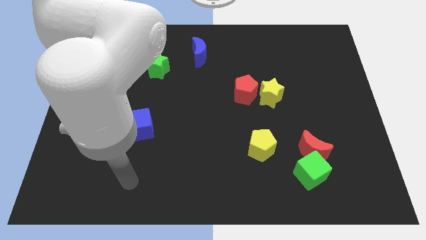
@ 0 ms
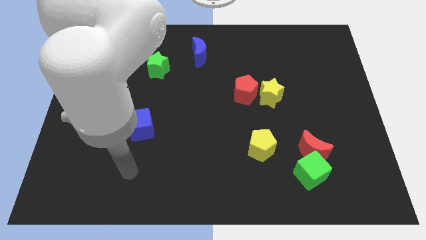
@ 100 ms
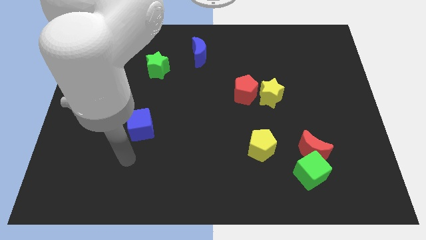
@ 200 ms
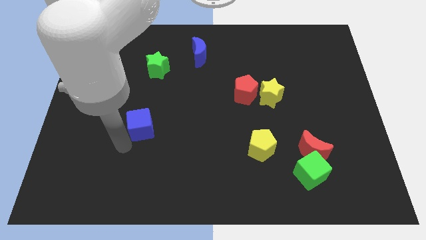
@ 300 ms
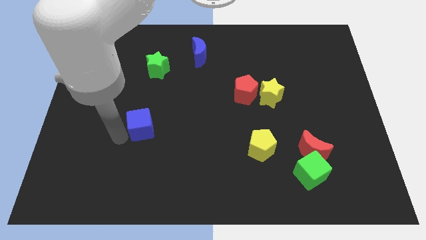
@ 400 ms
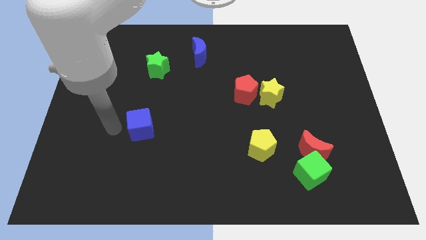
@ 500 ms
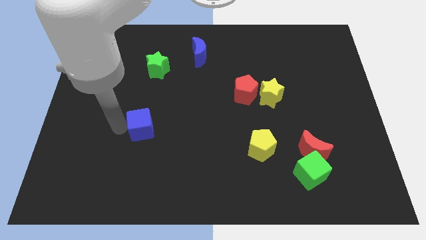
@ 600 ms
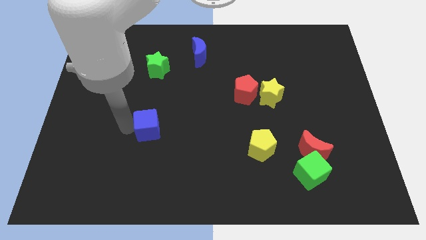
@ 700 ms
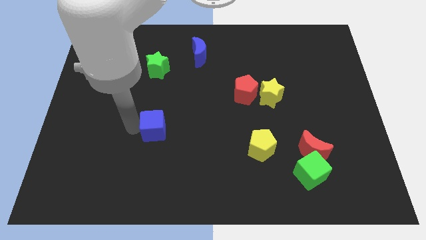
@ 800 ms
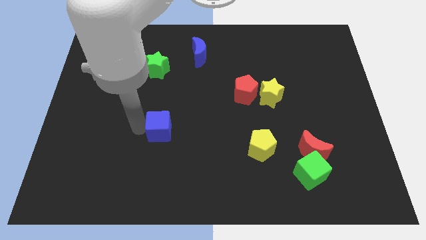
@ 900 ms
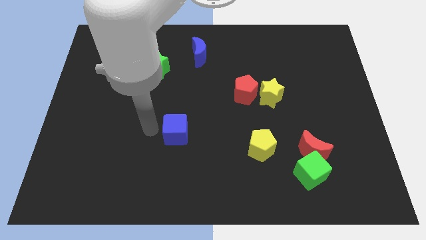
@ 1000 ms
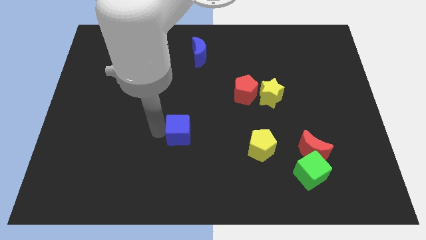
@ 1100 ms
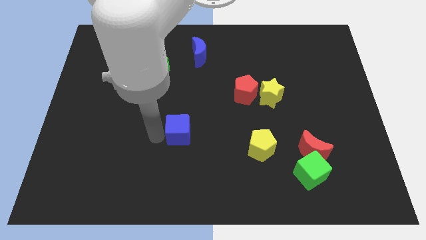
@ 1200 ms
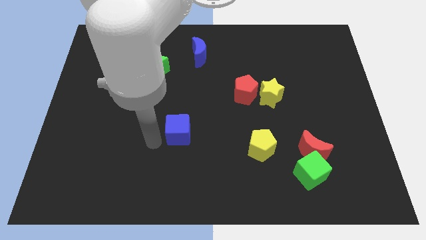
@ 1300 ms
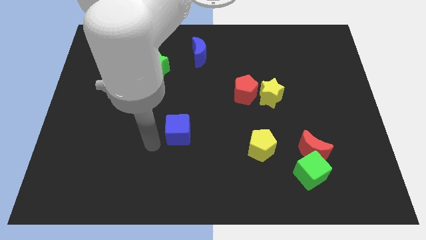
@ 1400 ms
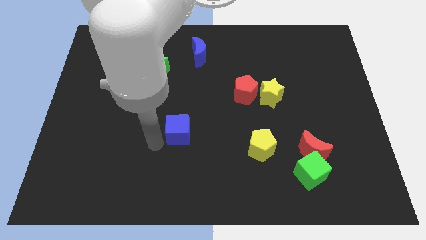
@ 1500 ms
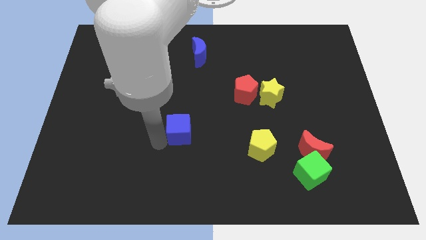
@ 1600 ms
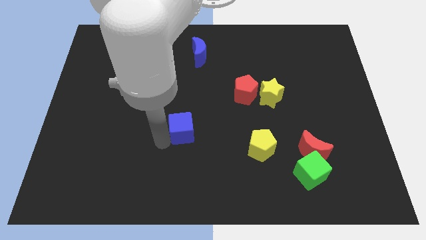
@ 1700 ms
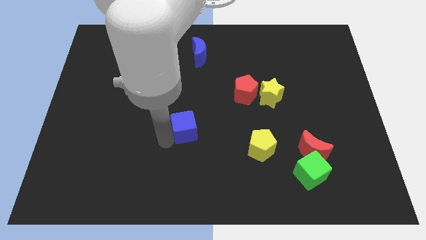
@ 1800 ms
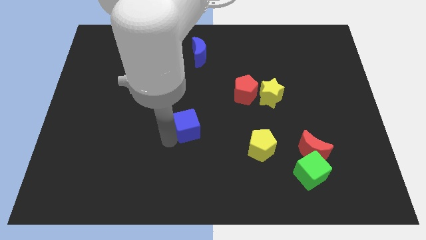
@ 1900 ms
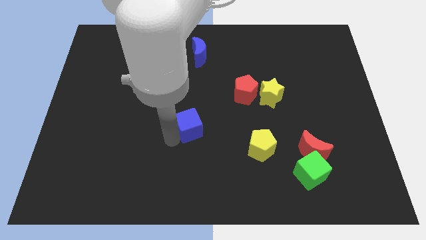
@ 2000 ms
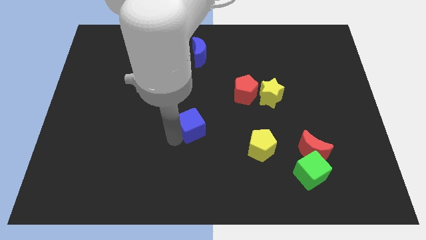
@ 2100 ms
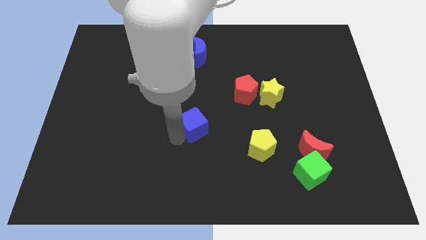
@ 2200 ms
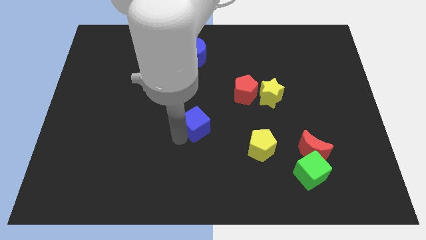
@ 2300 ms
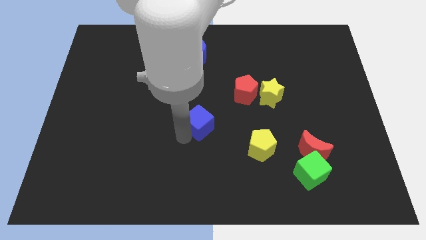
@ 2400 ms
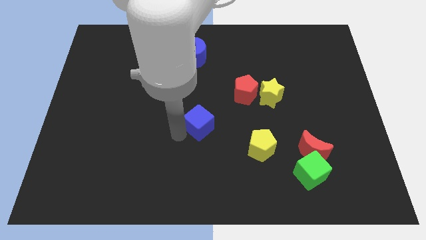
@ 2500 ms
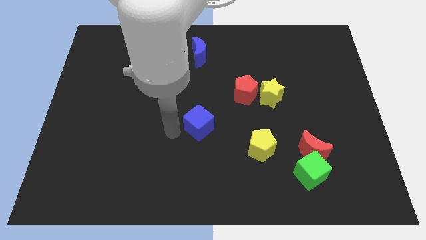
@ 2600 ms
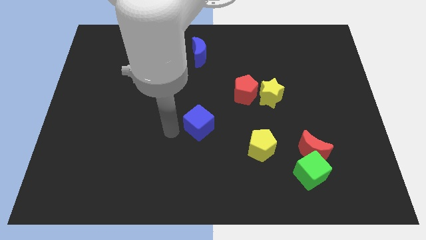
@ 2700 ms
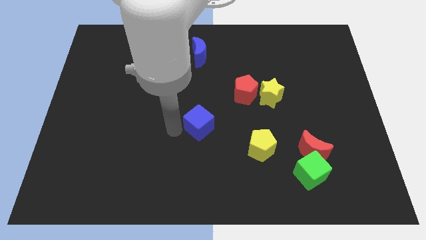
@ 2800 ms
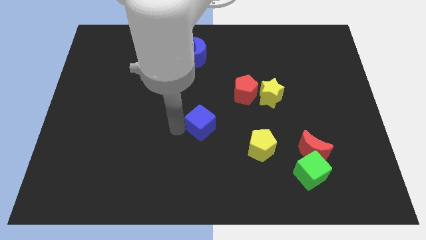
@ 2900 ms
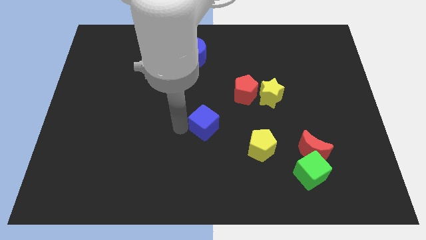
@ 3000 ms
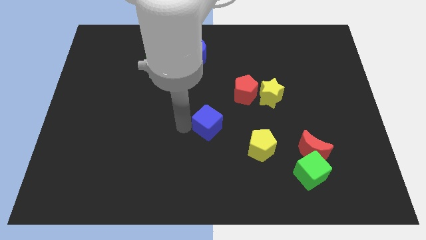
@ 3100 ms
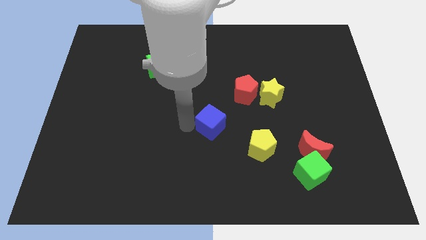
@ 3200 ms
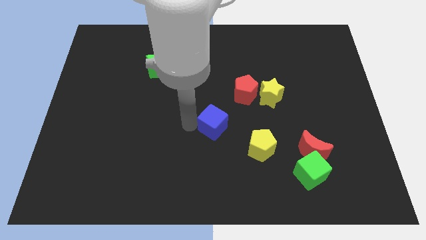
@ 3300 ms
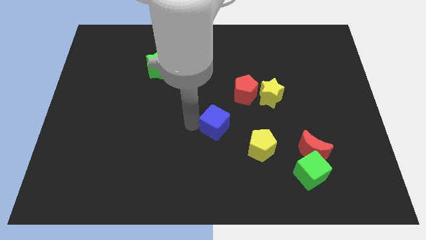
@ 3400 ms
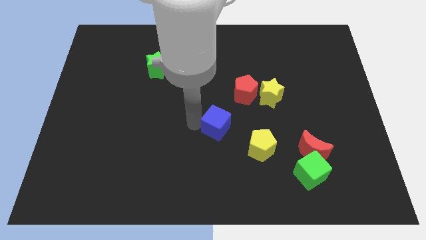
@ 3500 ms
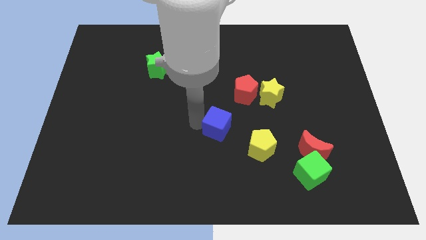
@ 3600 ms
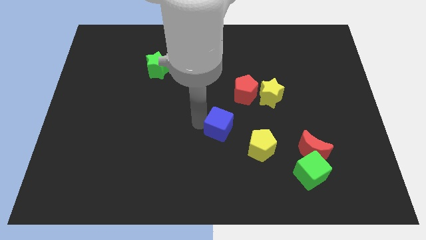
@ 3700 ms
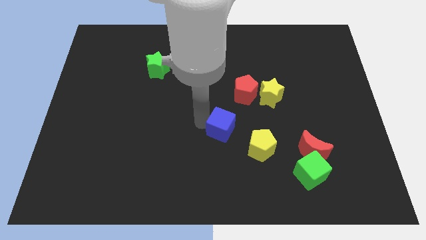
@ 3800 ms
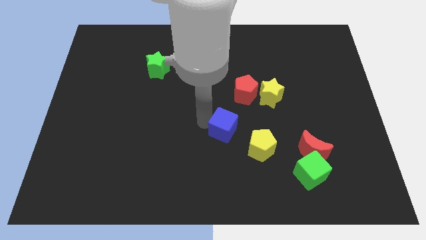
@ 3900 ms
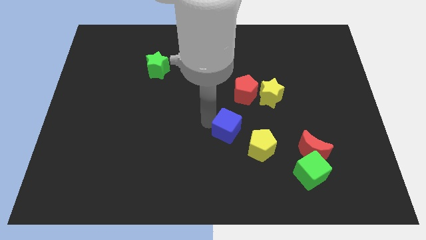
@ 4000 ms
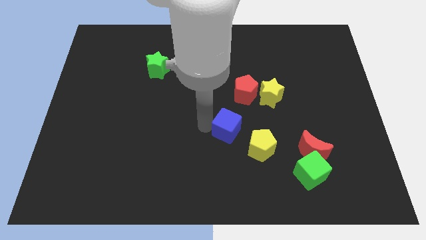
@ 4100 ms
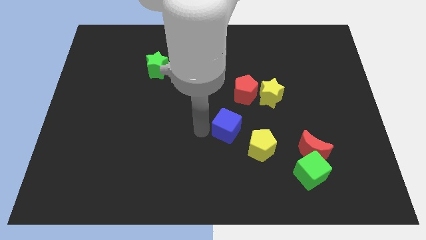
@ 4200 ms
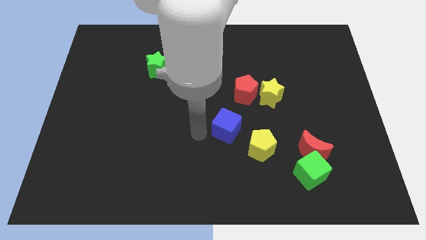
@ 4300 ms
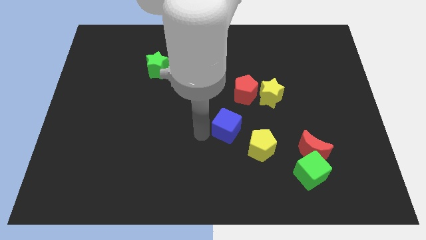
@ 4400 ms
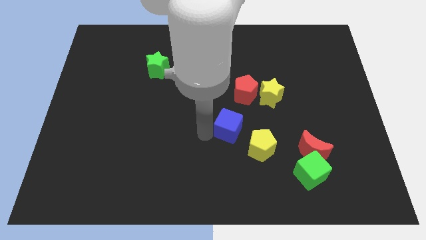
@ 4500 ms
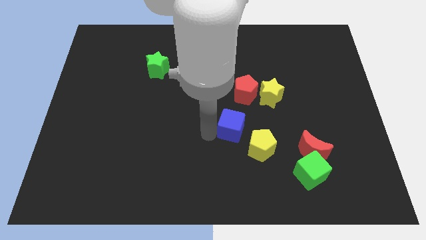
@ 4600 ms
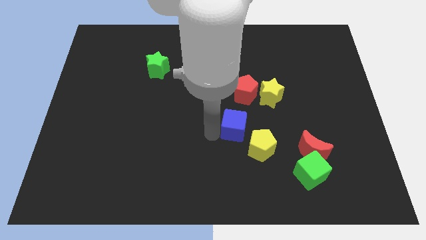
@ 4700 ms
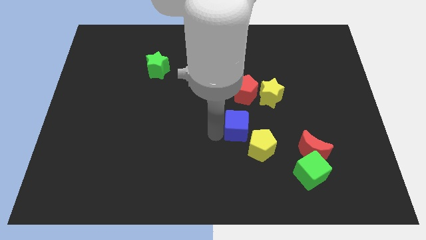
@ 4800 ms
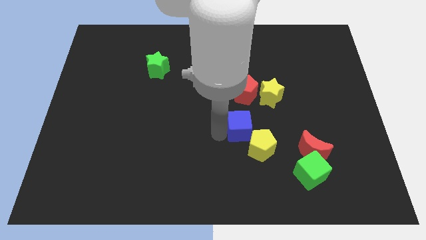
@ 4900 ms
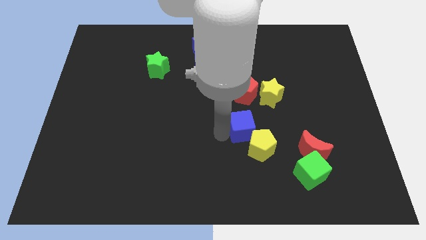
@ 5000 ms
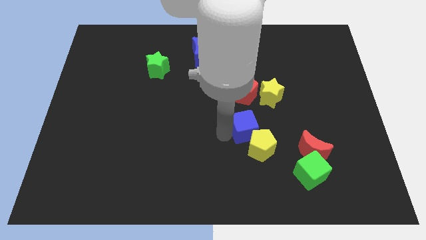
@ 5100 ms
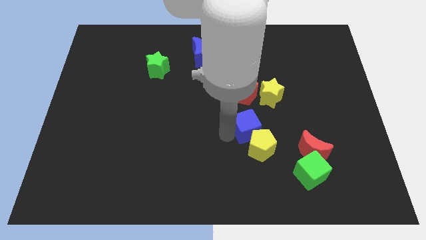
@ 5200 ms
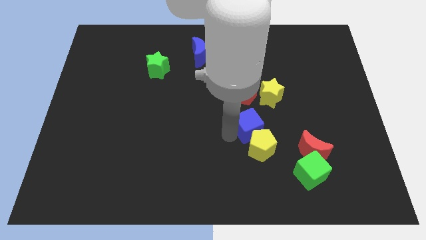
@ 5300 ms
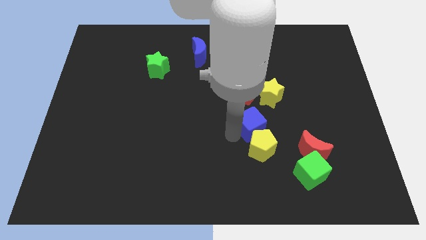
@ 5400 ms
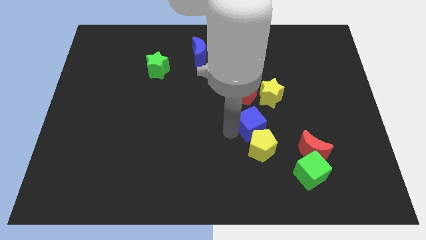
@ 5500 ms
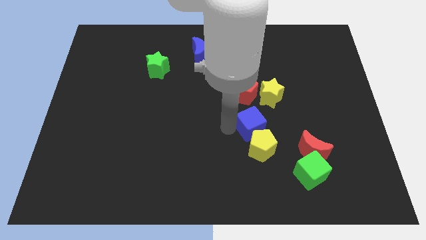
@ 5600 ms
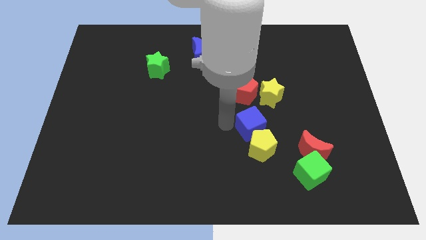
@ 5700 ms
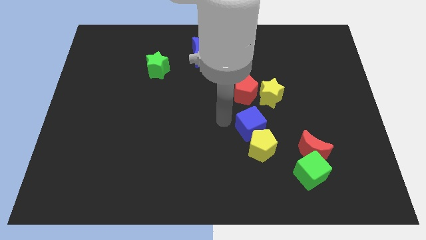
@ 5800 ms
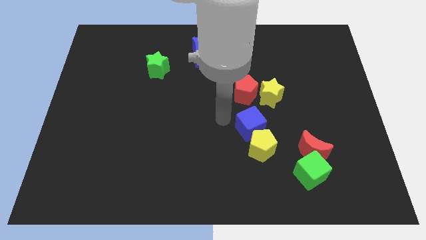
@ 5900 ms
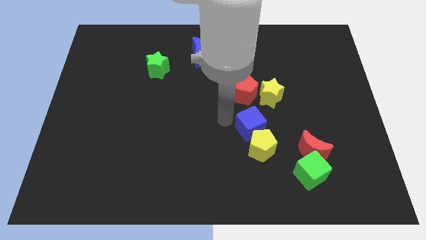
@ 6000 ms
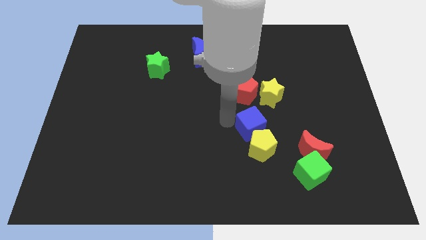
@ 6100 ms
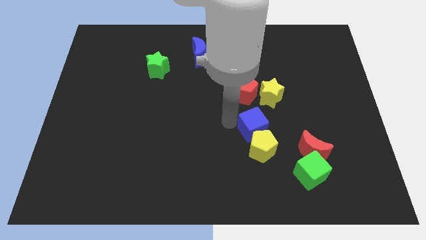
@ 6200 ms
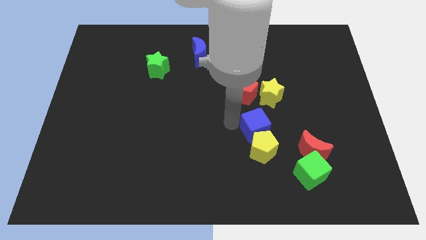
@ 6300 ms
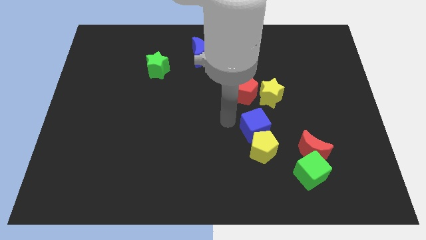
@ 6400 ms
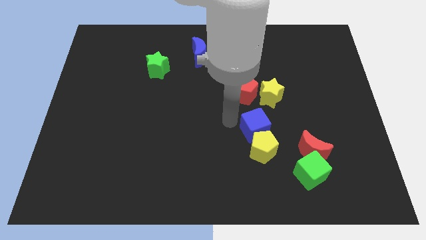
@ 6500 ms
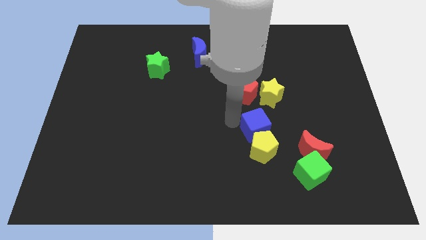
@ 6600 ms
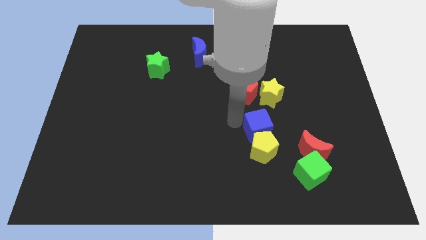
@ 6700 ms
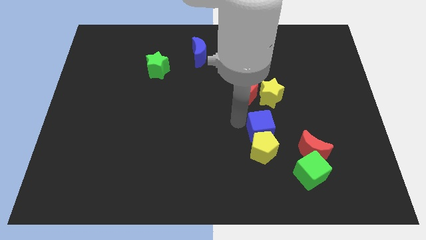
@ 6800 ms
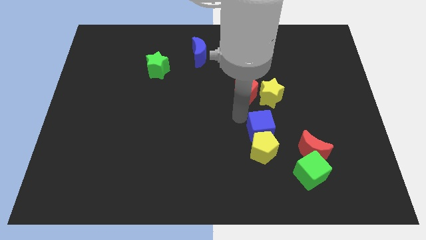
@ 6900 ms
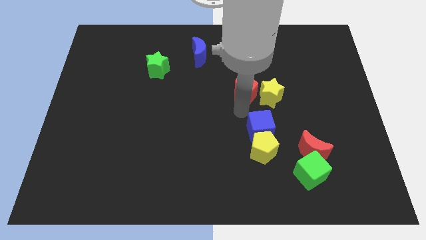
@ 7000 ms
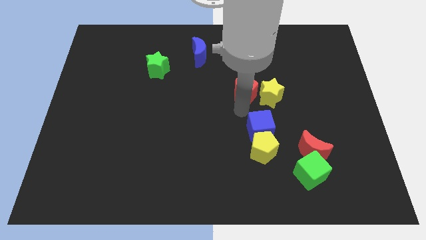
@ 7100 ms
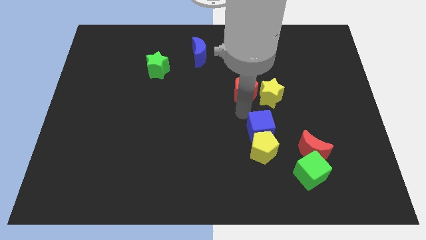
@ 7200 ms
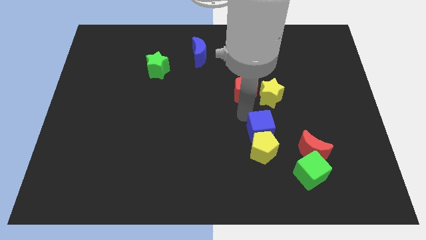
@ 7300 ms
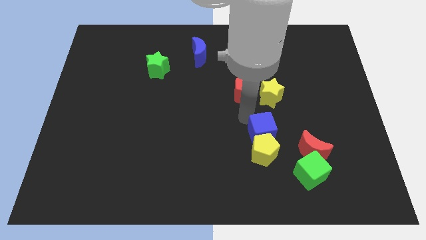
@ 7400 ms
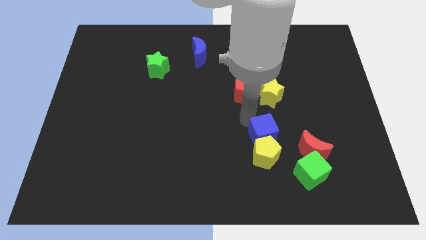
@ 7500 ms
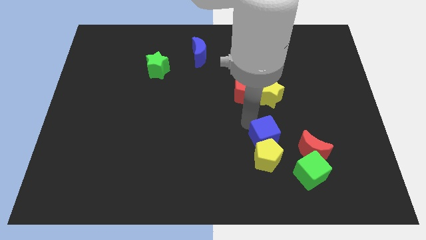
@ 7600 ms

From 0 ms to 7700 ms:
slide the blue cube to the top left of the green cube
